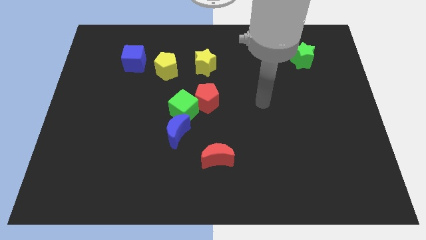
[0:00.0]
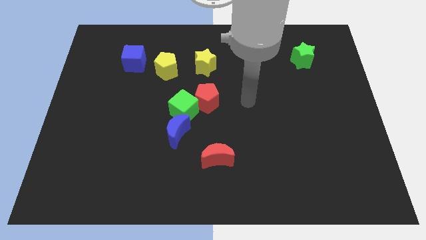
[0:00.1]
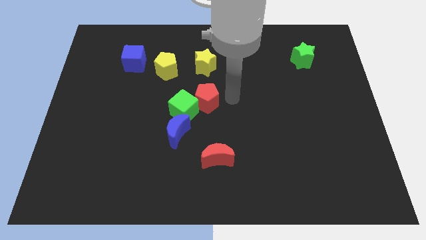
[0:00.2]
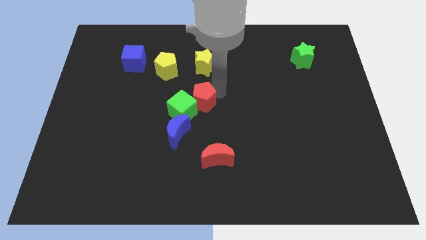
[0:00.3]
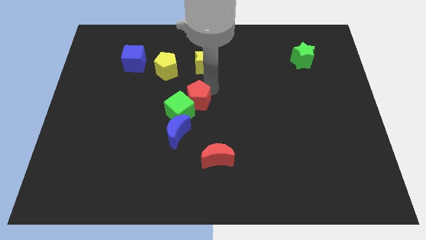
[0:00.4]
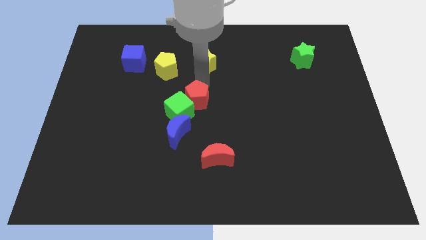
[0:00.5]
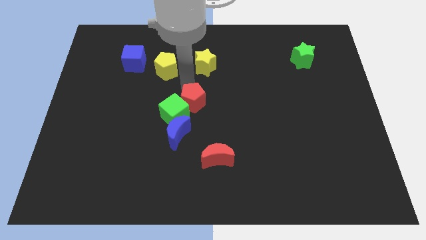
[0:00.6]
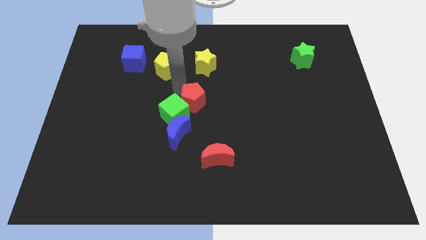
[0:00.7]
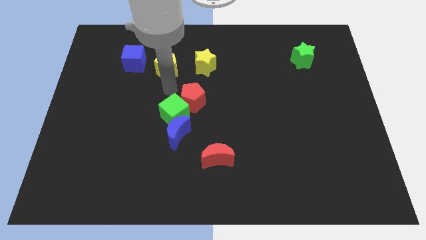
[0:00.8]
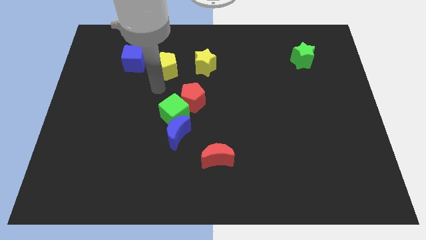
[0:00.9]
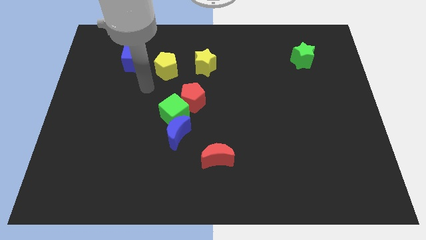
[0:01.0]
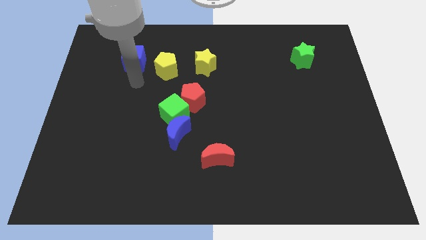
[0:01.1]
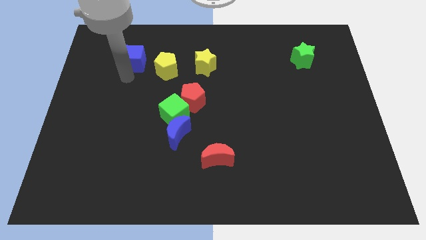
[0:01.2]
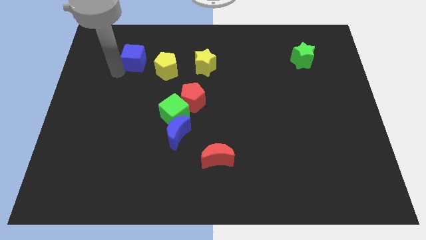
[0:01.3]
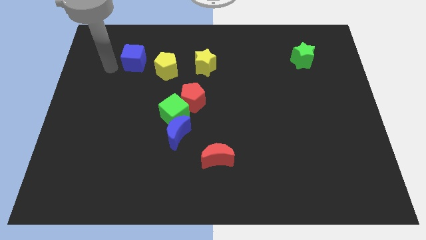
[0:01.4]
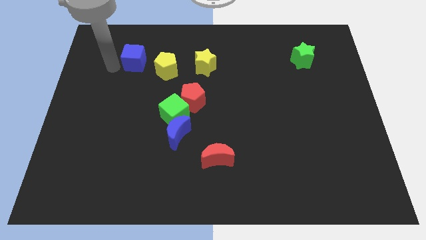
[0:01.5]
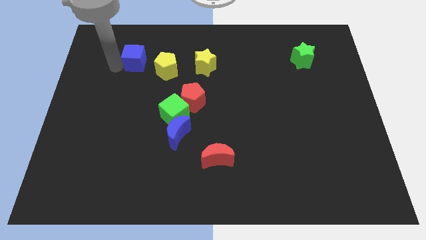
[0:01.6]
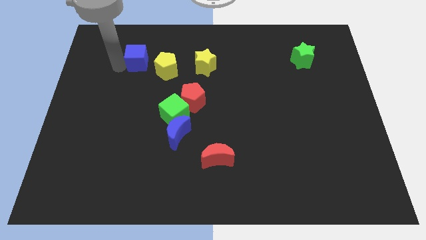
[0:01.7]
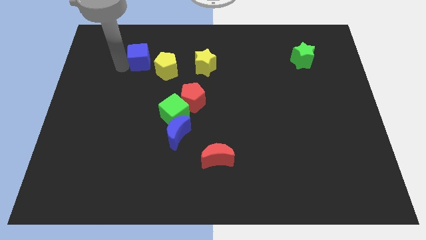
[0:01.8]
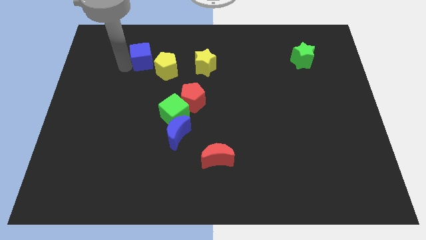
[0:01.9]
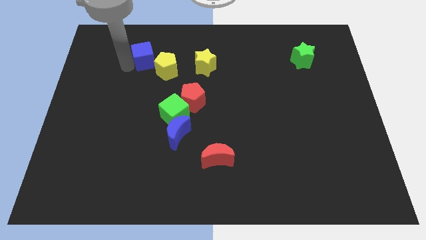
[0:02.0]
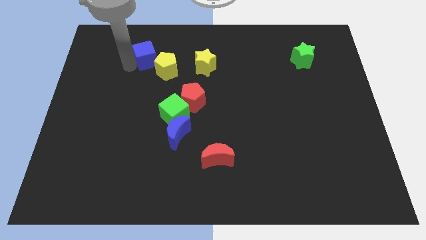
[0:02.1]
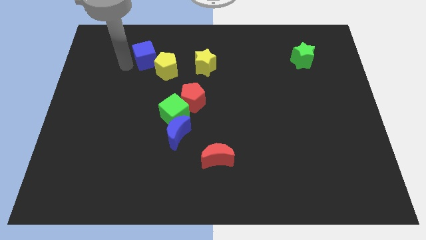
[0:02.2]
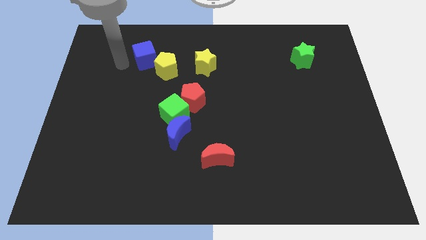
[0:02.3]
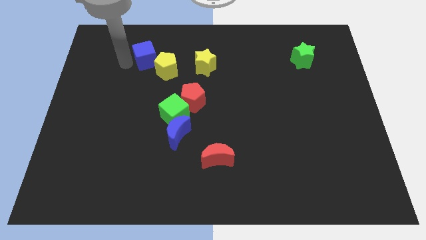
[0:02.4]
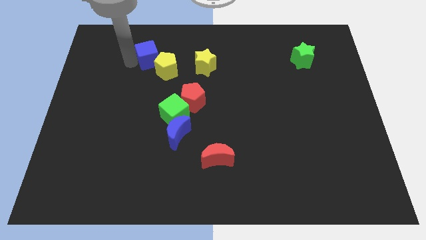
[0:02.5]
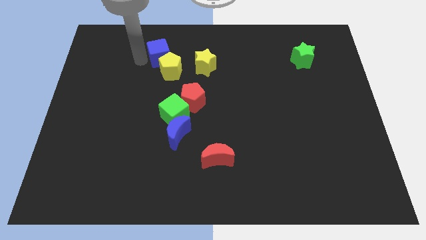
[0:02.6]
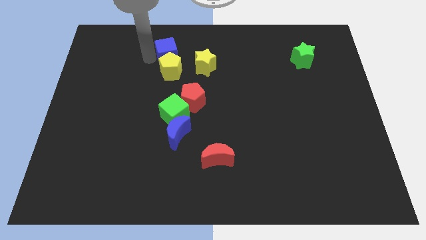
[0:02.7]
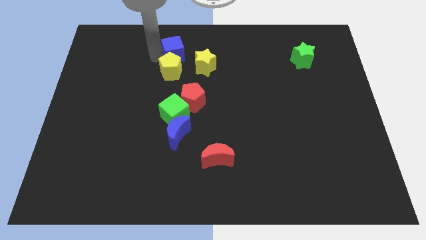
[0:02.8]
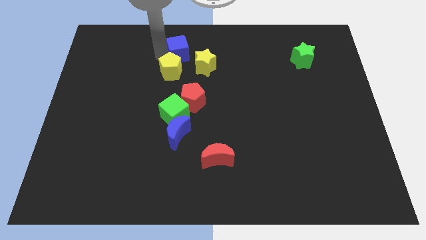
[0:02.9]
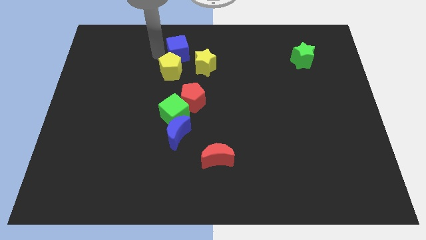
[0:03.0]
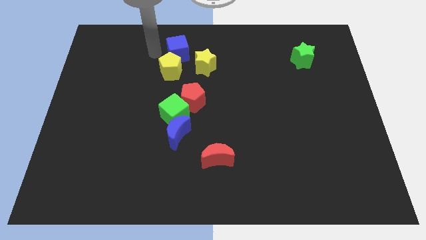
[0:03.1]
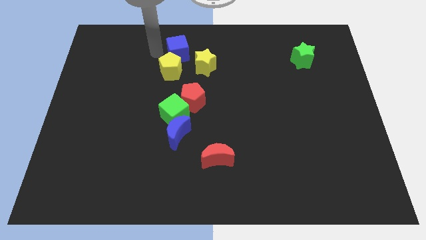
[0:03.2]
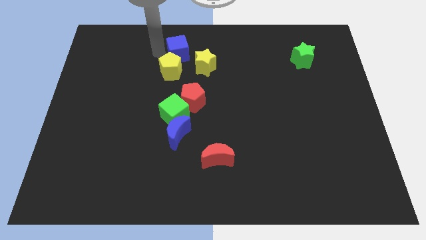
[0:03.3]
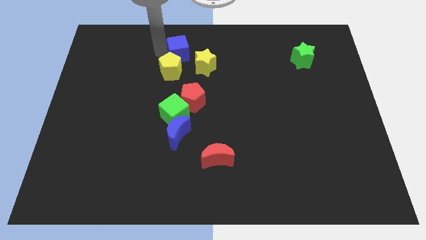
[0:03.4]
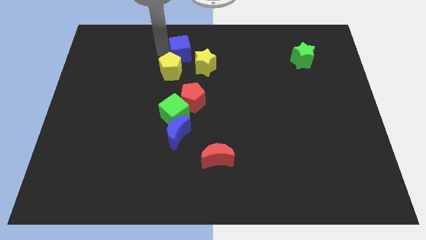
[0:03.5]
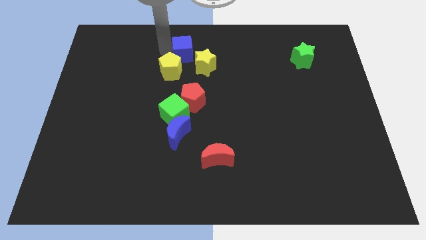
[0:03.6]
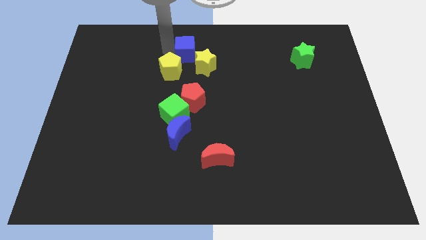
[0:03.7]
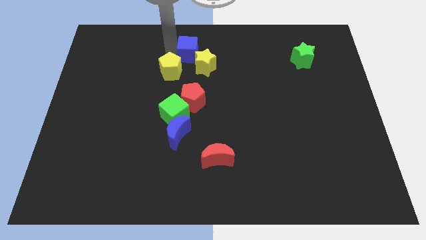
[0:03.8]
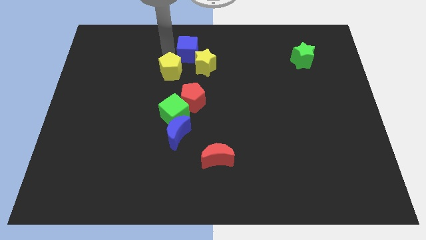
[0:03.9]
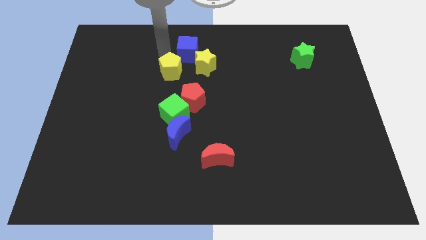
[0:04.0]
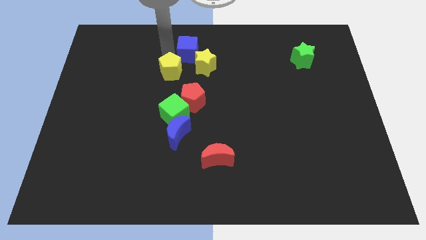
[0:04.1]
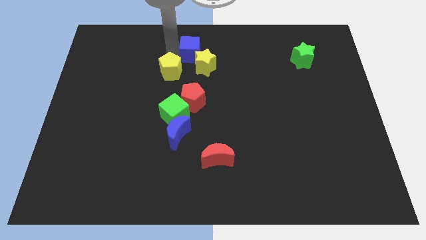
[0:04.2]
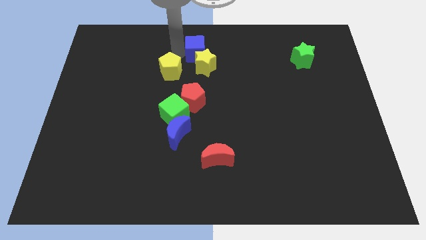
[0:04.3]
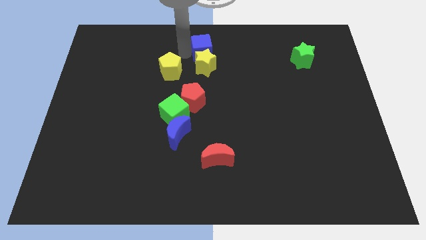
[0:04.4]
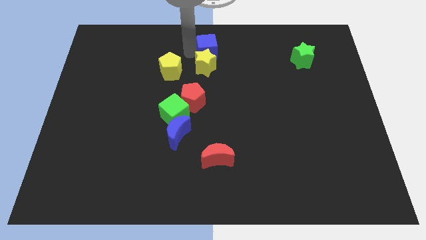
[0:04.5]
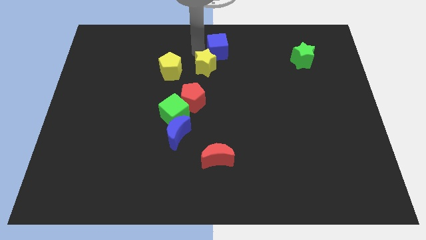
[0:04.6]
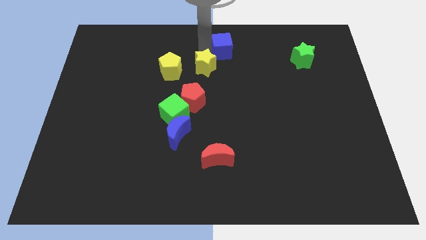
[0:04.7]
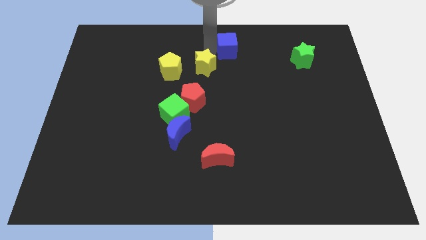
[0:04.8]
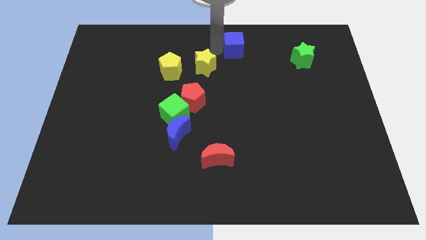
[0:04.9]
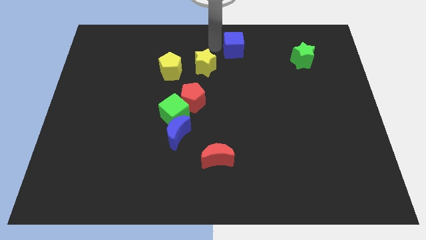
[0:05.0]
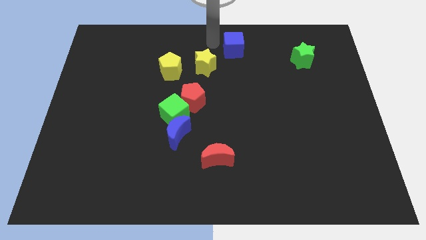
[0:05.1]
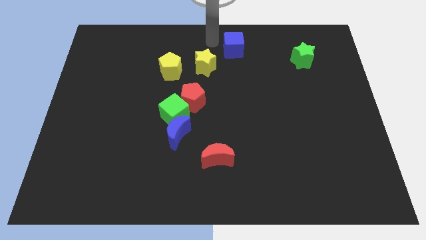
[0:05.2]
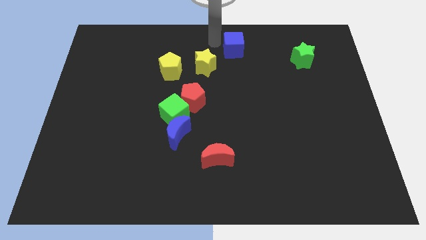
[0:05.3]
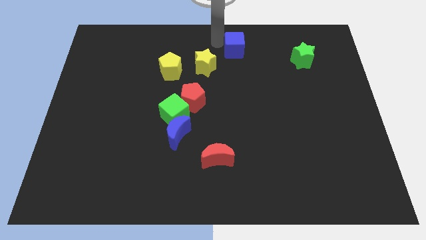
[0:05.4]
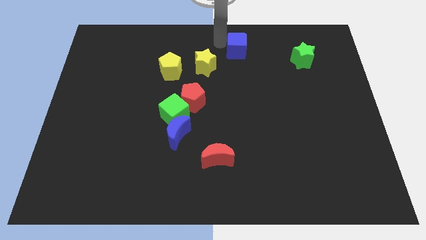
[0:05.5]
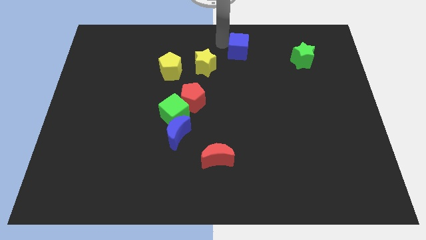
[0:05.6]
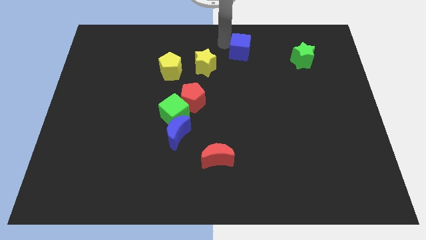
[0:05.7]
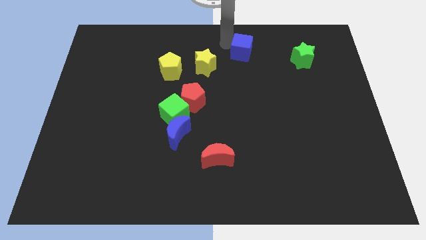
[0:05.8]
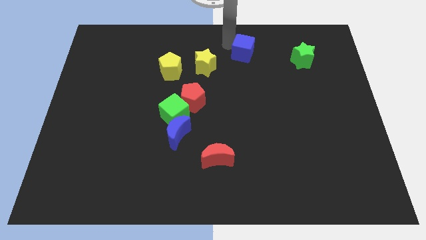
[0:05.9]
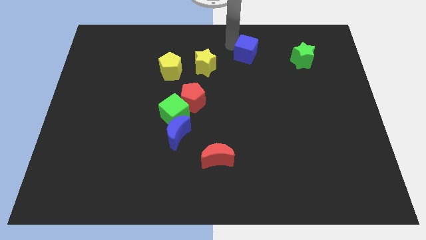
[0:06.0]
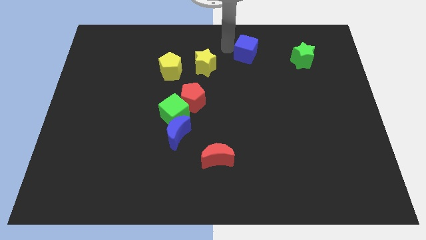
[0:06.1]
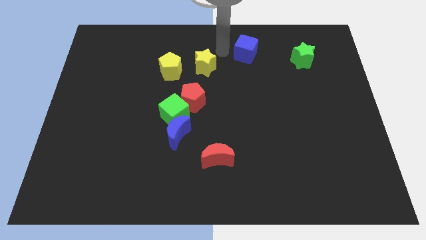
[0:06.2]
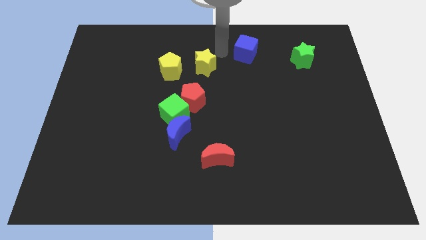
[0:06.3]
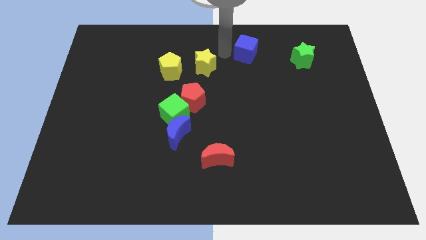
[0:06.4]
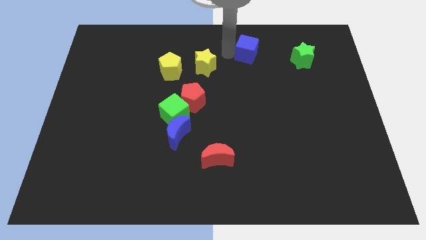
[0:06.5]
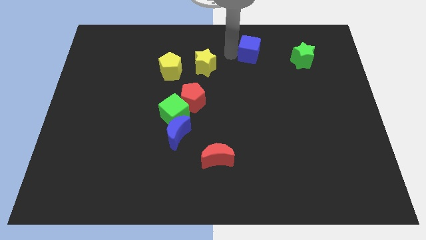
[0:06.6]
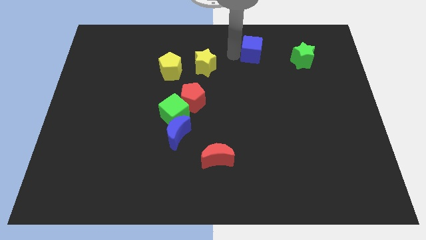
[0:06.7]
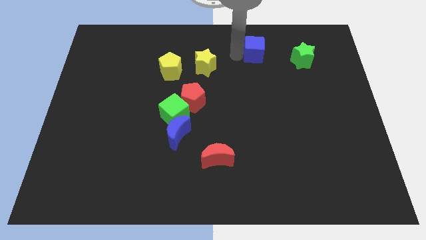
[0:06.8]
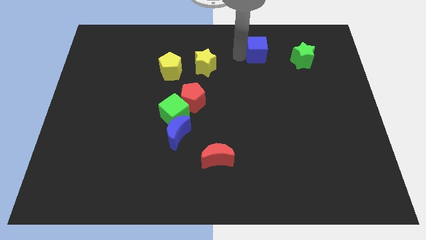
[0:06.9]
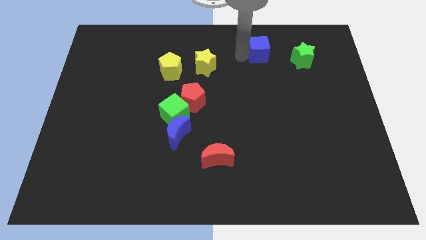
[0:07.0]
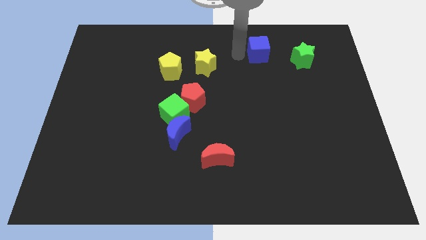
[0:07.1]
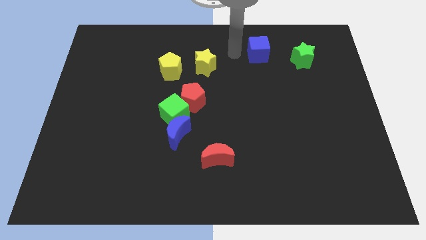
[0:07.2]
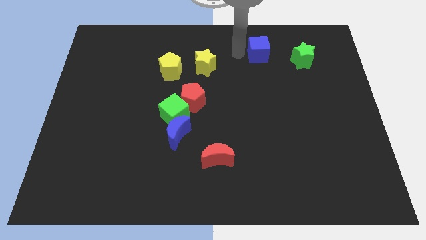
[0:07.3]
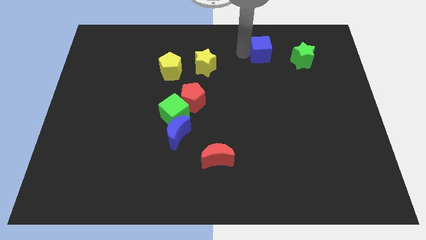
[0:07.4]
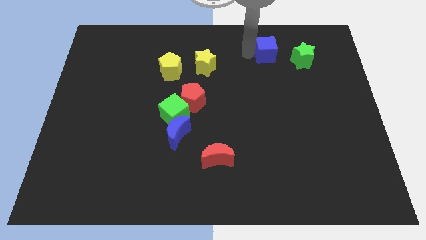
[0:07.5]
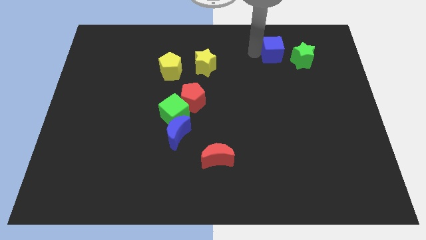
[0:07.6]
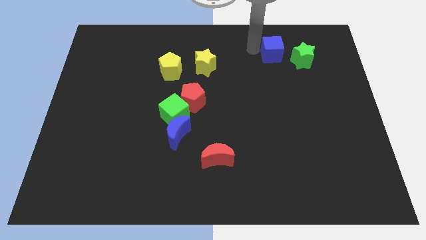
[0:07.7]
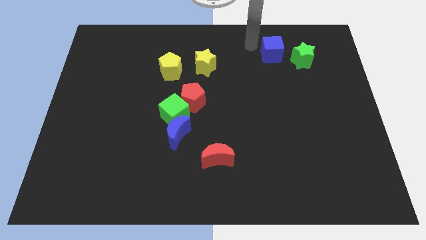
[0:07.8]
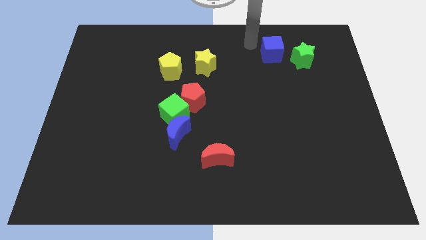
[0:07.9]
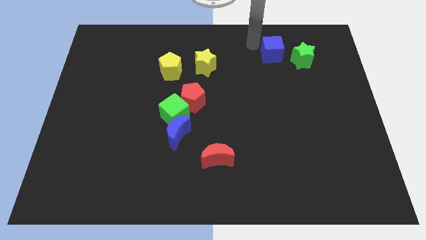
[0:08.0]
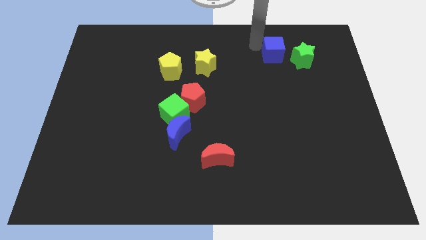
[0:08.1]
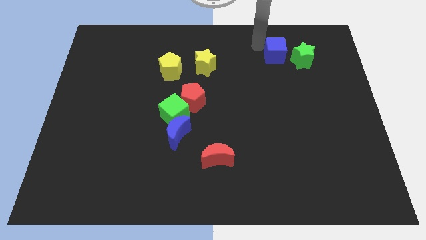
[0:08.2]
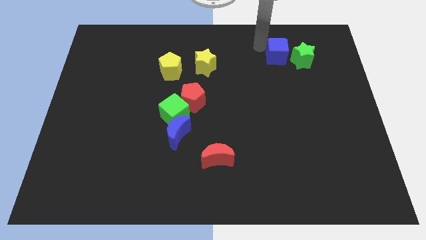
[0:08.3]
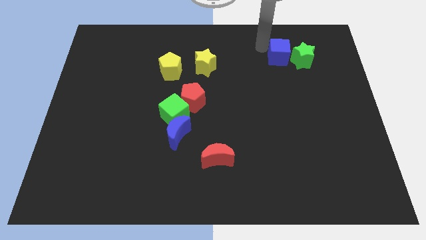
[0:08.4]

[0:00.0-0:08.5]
put the blue cube next to the green star
